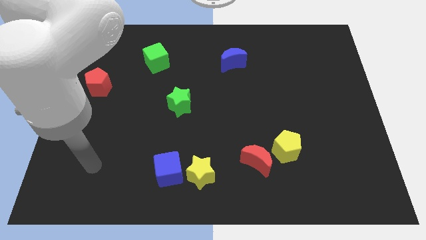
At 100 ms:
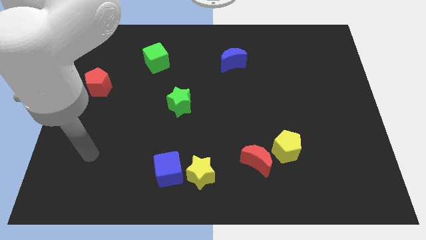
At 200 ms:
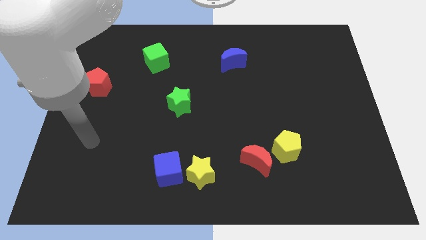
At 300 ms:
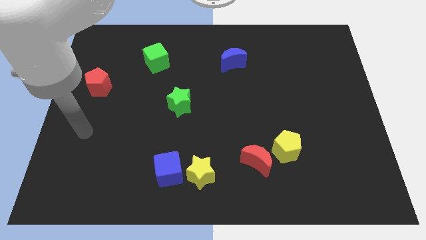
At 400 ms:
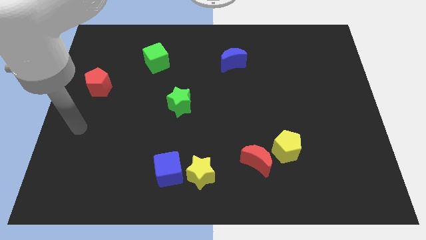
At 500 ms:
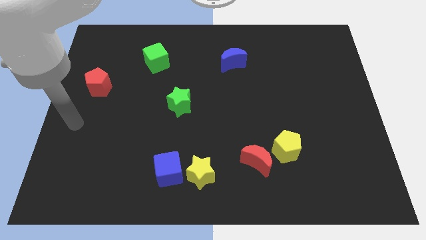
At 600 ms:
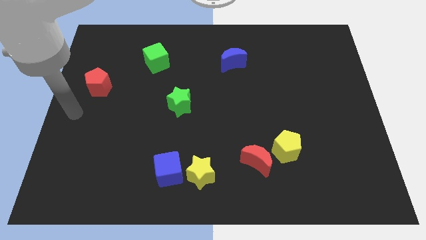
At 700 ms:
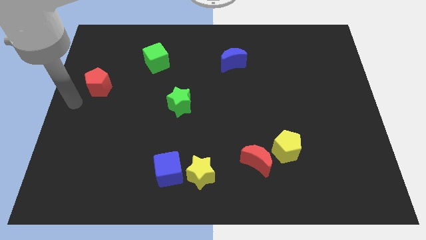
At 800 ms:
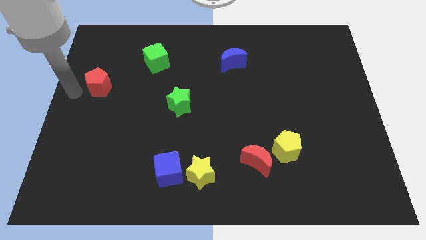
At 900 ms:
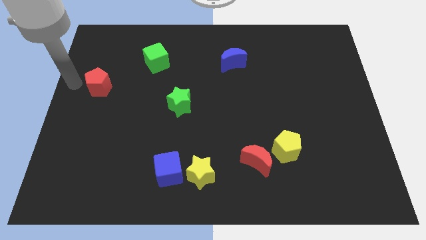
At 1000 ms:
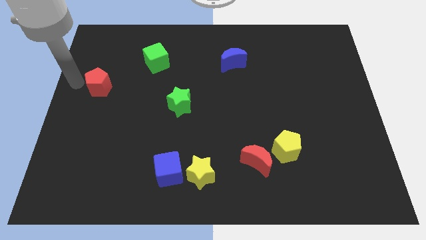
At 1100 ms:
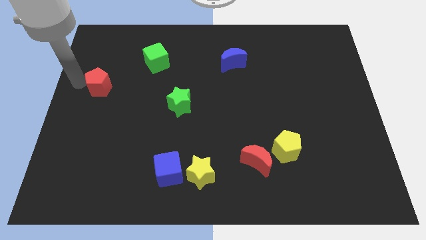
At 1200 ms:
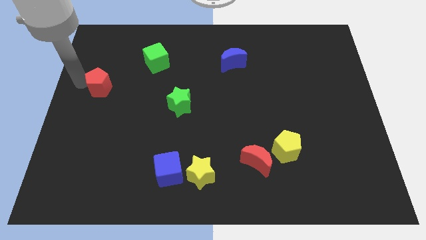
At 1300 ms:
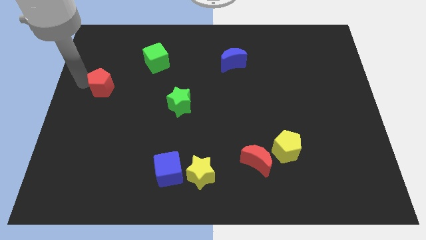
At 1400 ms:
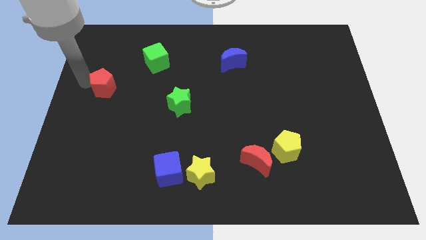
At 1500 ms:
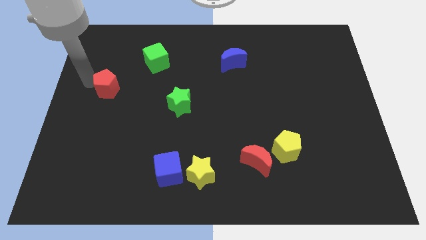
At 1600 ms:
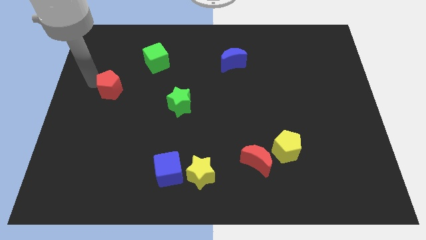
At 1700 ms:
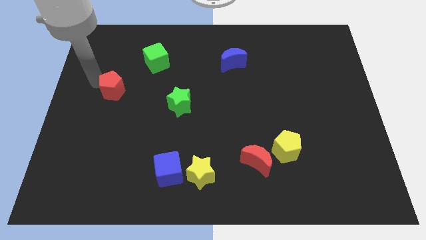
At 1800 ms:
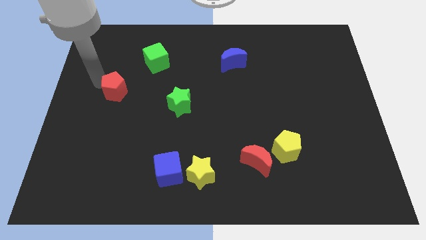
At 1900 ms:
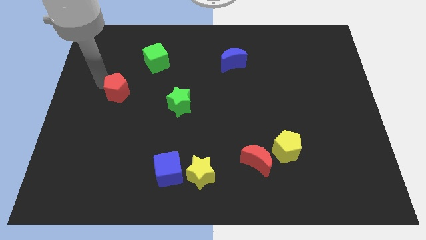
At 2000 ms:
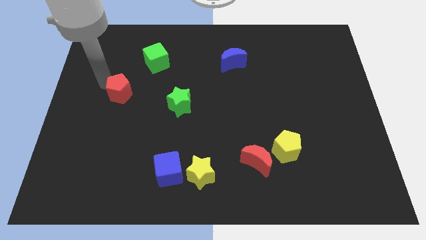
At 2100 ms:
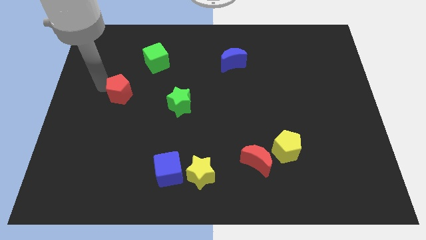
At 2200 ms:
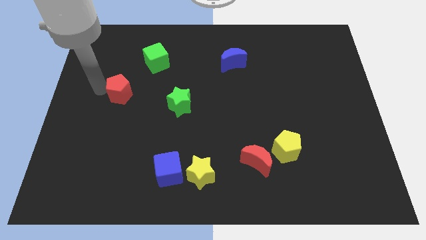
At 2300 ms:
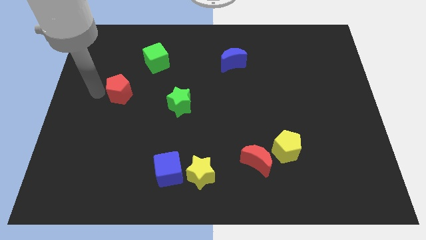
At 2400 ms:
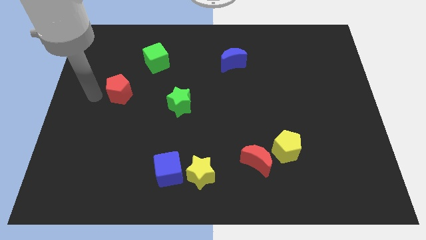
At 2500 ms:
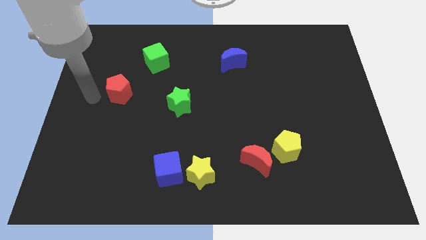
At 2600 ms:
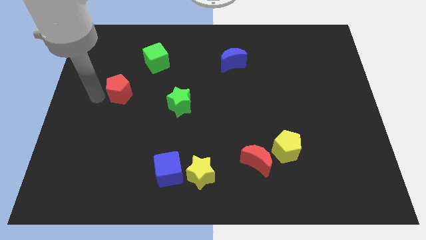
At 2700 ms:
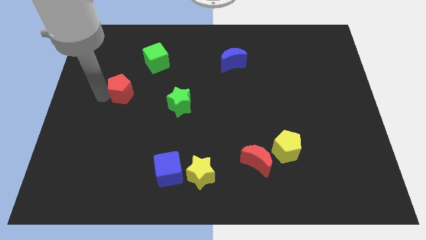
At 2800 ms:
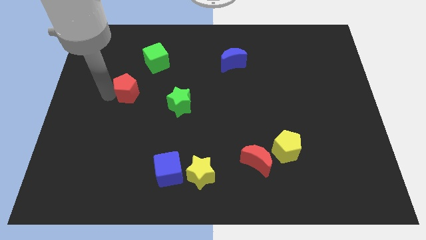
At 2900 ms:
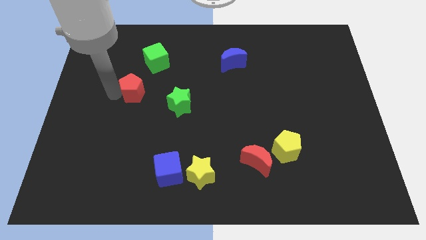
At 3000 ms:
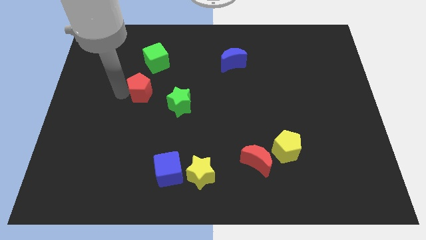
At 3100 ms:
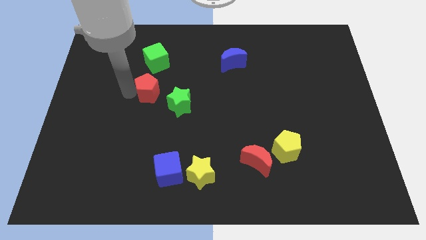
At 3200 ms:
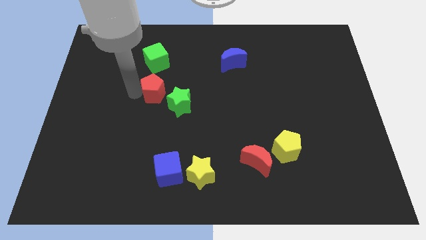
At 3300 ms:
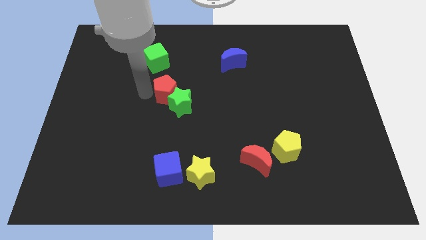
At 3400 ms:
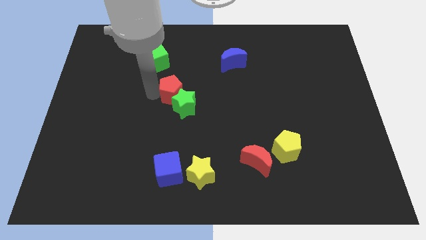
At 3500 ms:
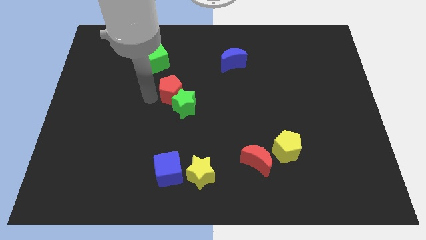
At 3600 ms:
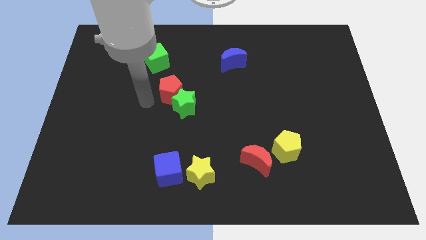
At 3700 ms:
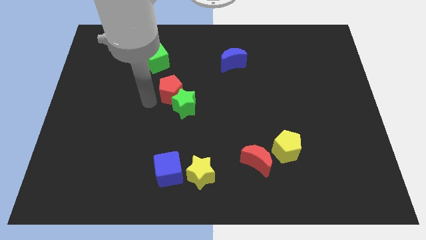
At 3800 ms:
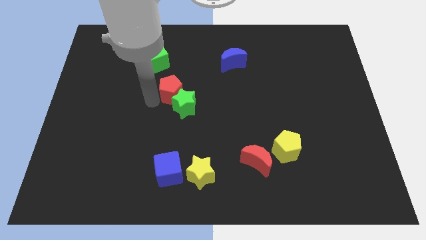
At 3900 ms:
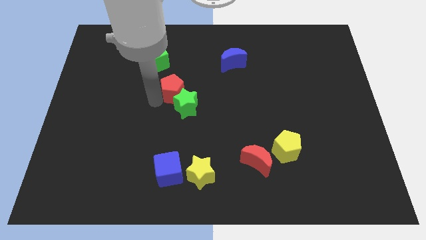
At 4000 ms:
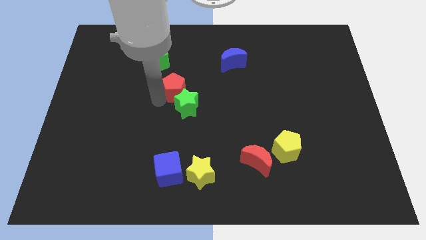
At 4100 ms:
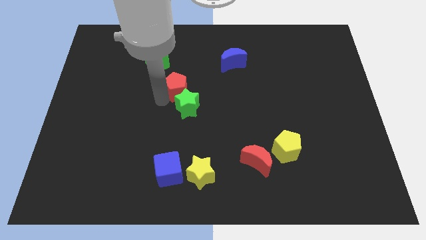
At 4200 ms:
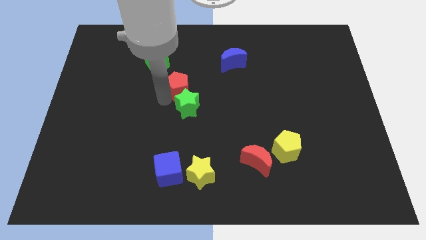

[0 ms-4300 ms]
push the red pentagon to the right

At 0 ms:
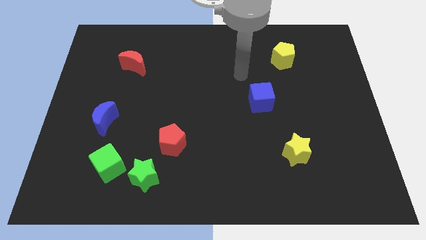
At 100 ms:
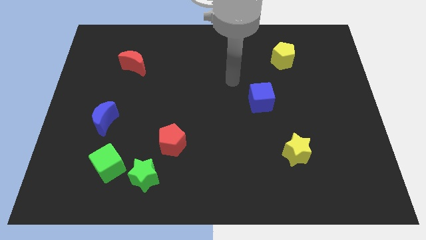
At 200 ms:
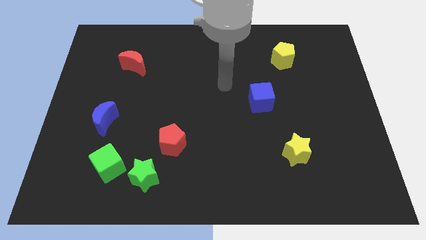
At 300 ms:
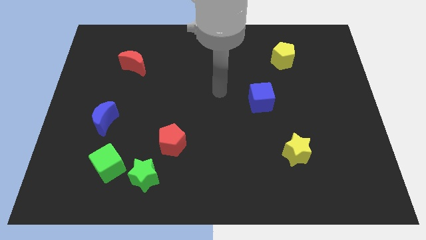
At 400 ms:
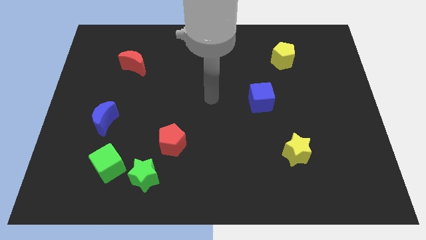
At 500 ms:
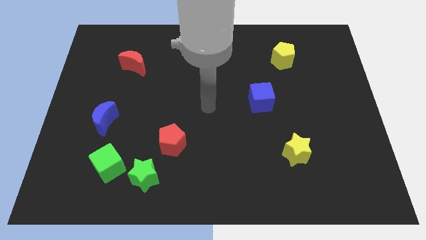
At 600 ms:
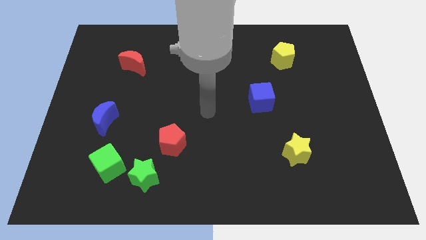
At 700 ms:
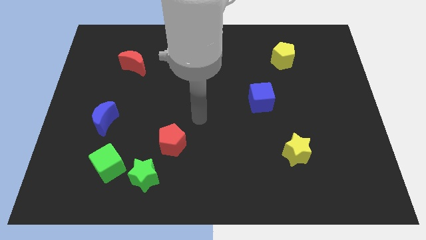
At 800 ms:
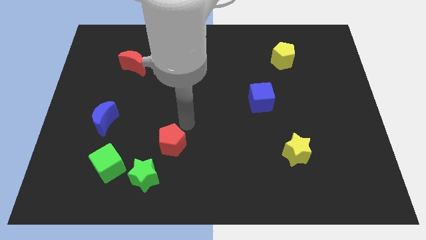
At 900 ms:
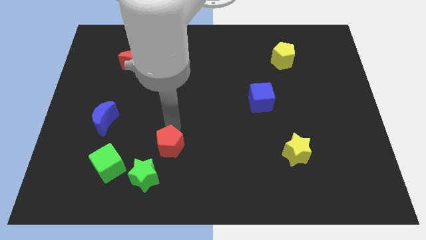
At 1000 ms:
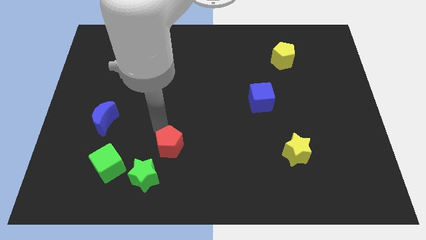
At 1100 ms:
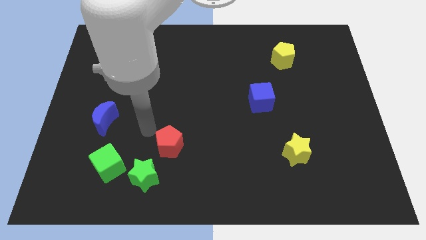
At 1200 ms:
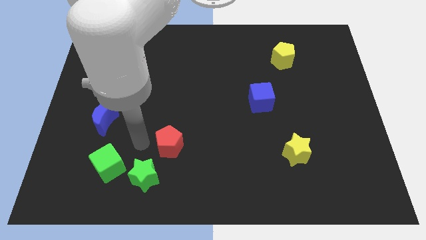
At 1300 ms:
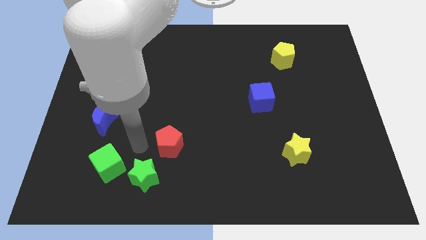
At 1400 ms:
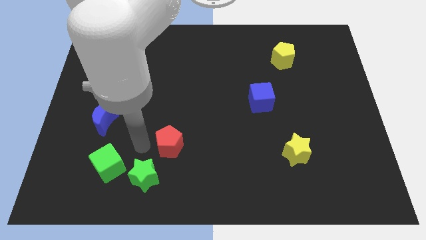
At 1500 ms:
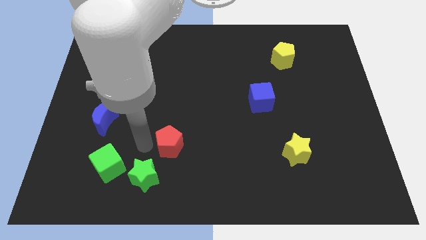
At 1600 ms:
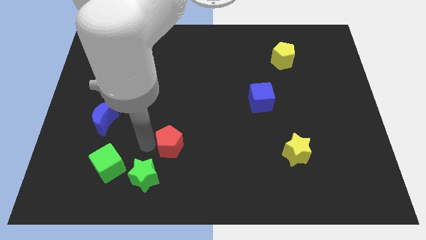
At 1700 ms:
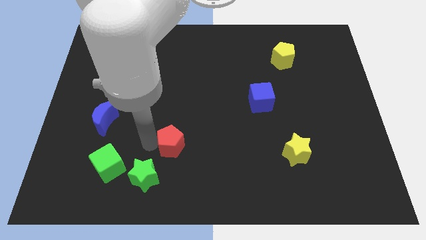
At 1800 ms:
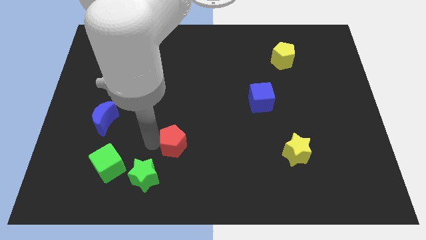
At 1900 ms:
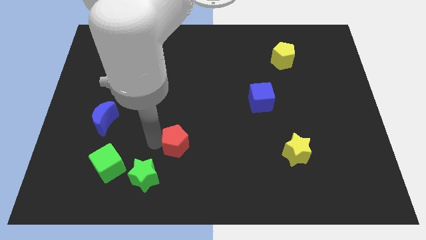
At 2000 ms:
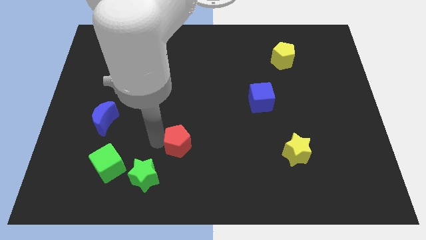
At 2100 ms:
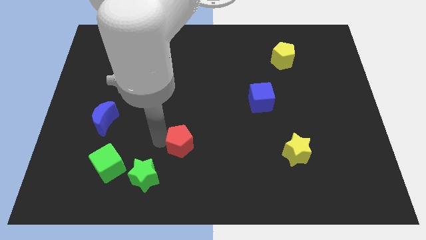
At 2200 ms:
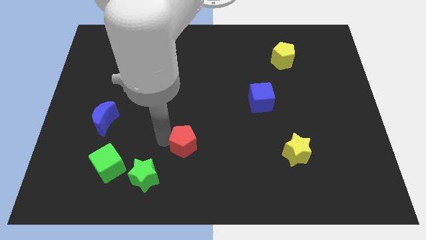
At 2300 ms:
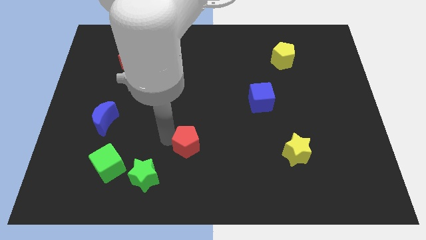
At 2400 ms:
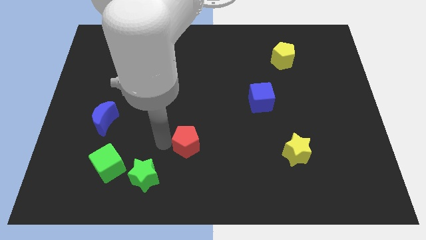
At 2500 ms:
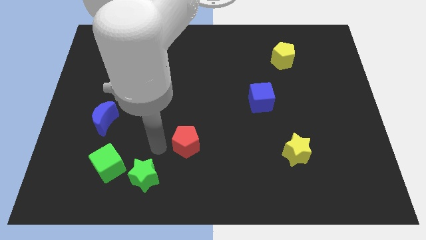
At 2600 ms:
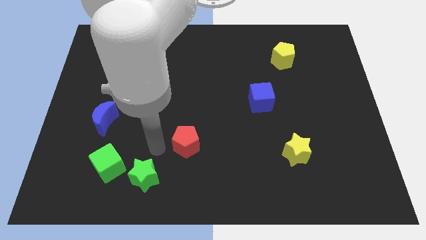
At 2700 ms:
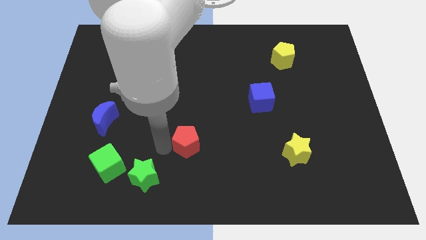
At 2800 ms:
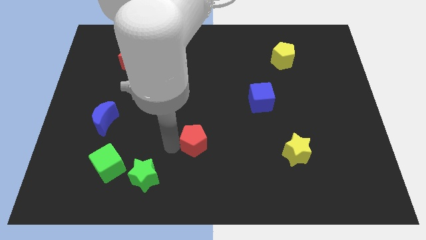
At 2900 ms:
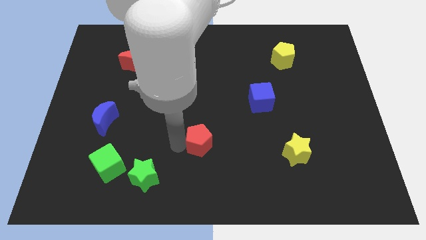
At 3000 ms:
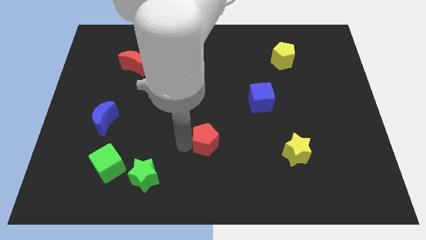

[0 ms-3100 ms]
move the red pentagon a little bit to the right

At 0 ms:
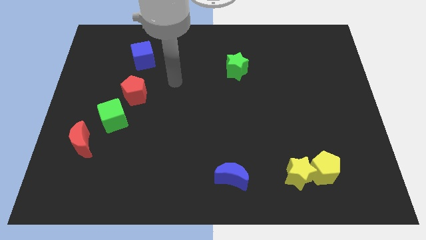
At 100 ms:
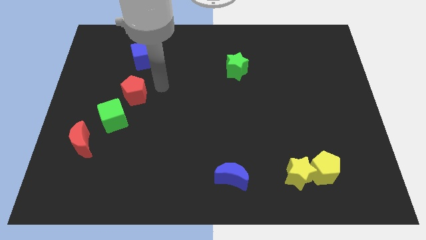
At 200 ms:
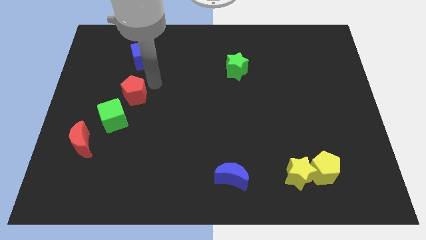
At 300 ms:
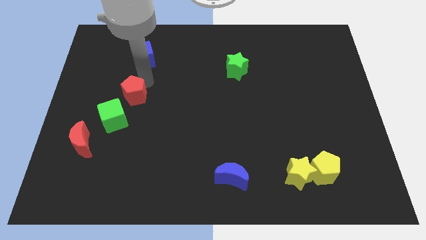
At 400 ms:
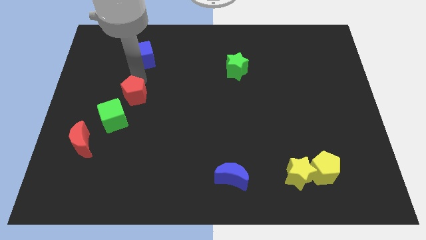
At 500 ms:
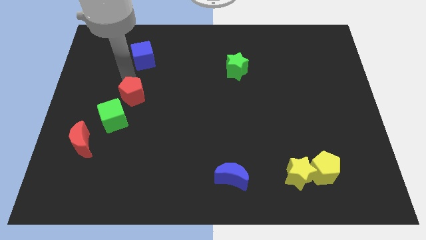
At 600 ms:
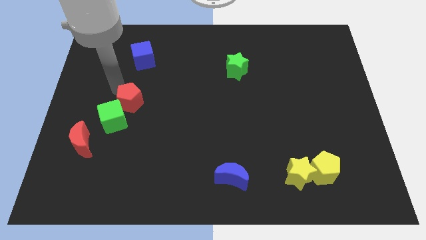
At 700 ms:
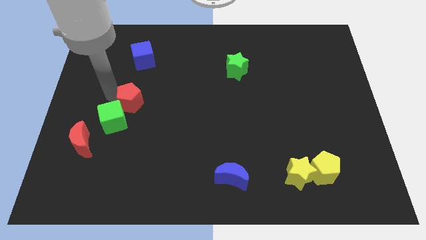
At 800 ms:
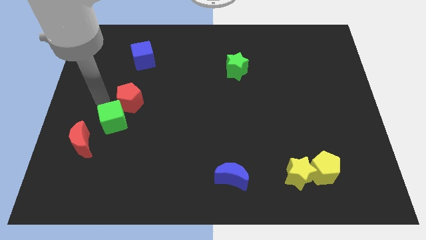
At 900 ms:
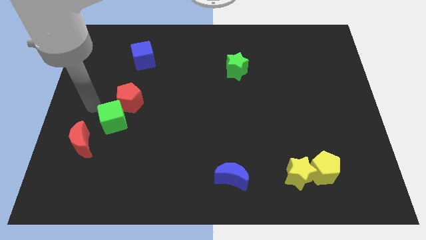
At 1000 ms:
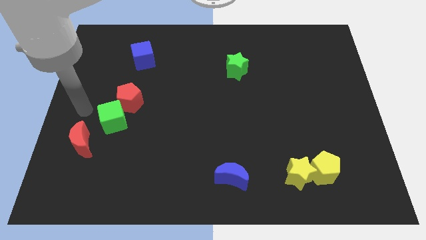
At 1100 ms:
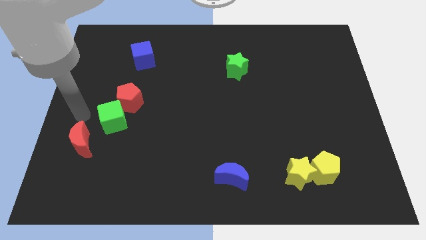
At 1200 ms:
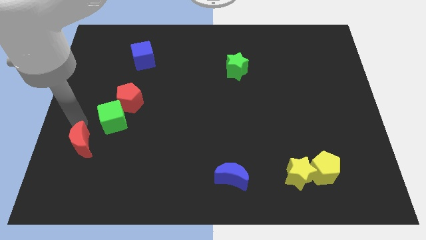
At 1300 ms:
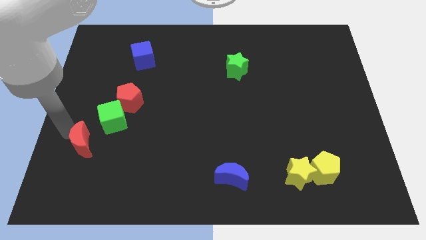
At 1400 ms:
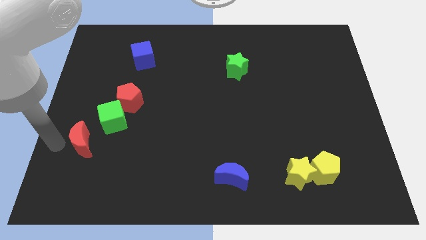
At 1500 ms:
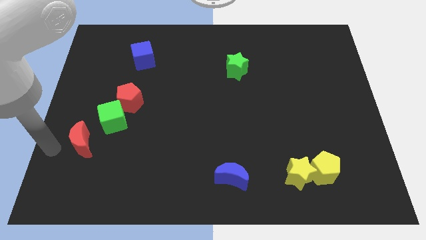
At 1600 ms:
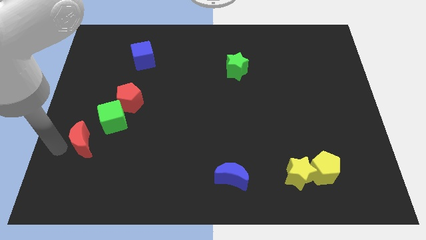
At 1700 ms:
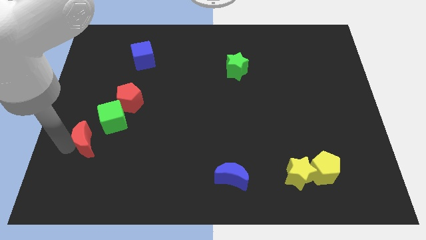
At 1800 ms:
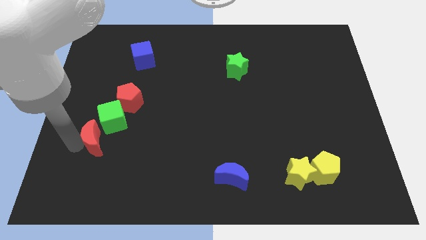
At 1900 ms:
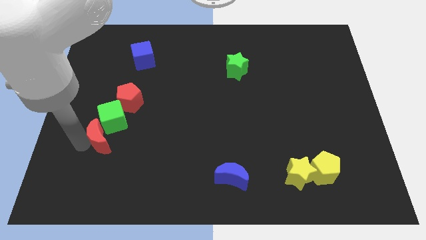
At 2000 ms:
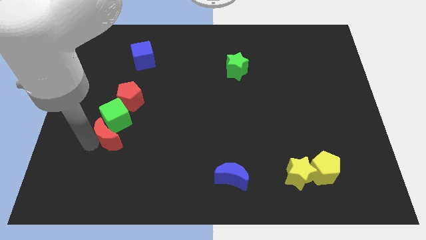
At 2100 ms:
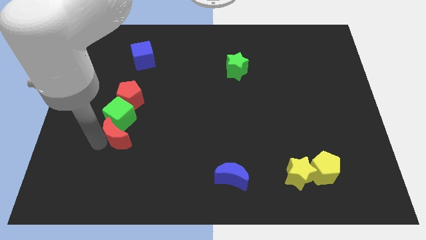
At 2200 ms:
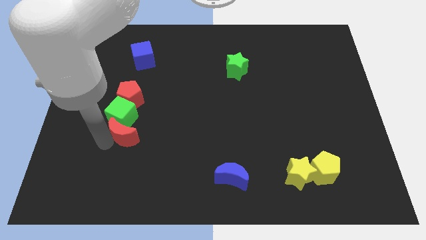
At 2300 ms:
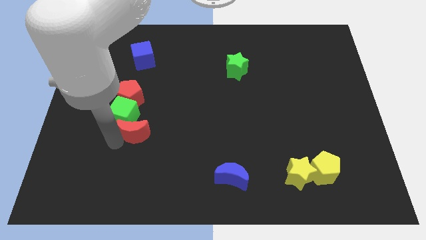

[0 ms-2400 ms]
push the red moon up and to the right somewhat
